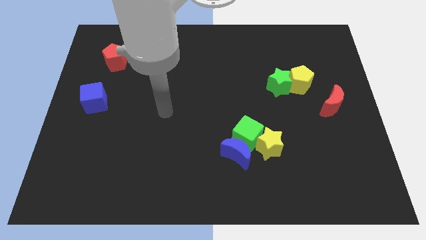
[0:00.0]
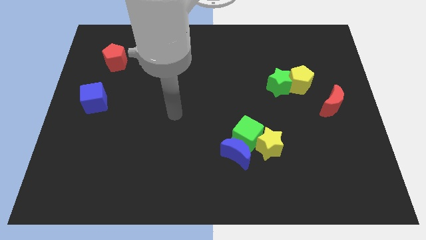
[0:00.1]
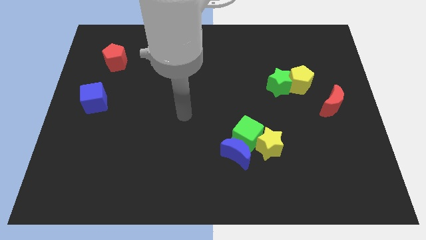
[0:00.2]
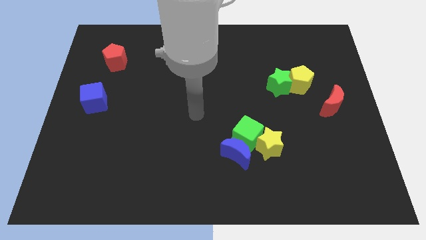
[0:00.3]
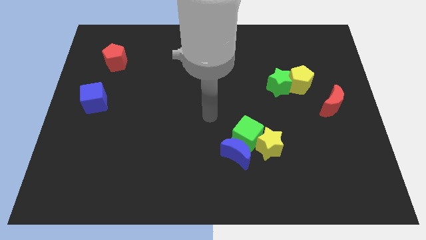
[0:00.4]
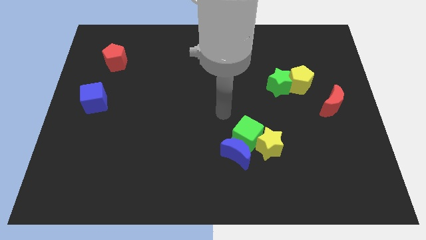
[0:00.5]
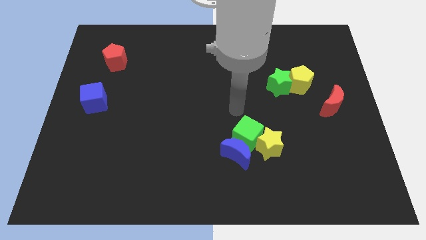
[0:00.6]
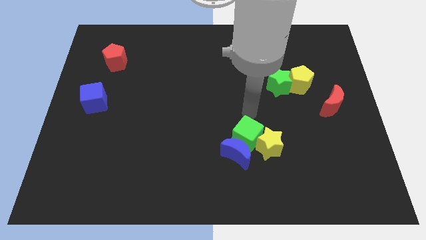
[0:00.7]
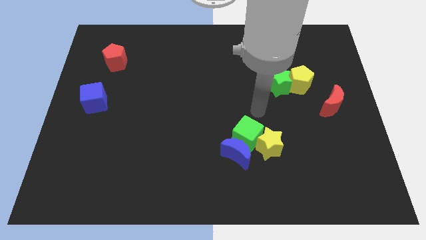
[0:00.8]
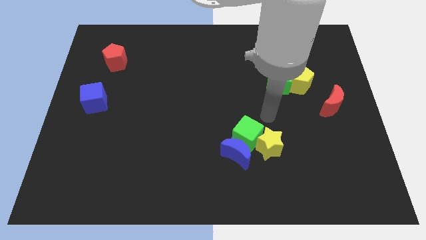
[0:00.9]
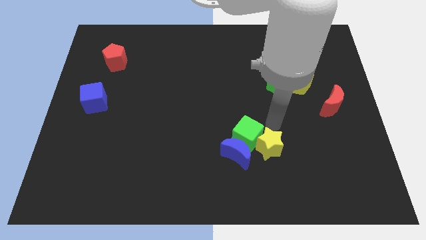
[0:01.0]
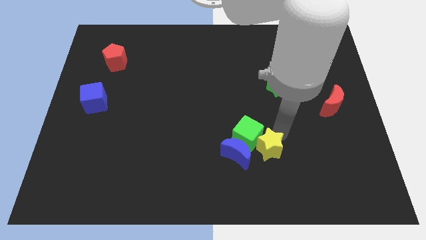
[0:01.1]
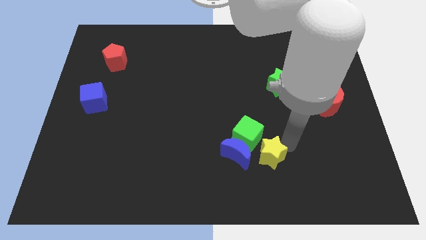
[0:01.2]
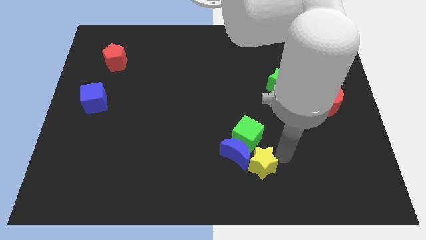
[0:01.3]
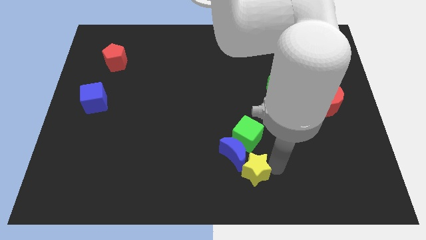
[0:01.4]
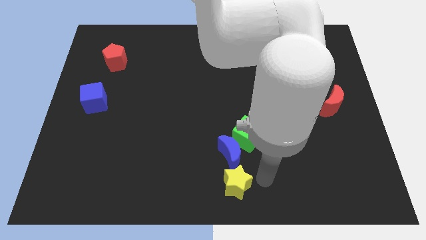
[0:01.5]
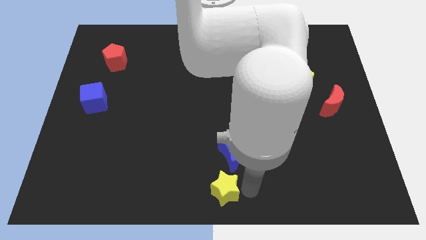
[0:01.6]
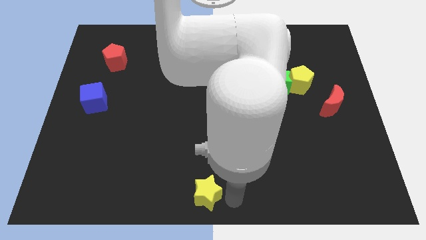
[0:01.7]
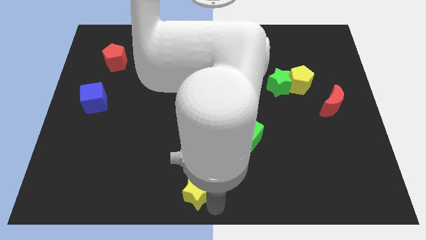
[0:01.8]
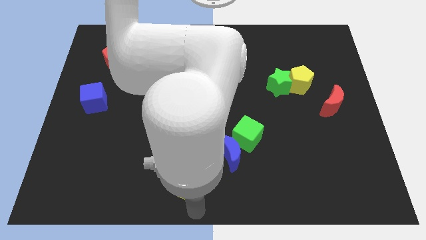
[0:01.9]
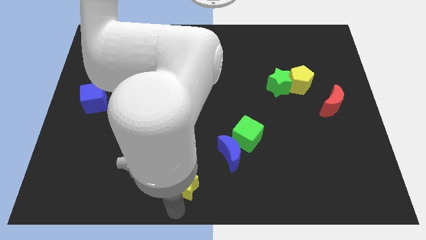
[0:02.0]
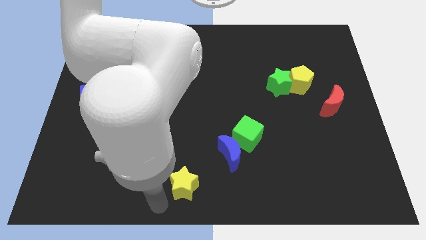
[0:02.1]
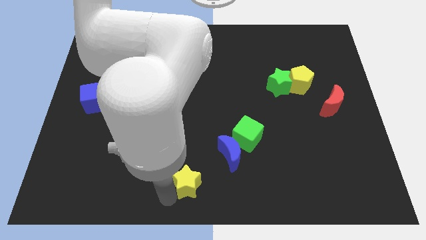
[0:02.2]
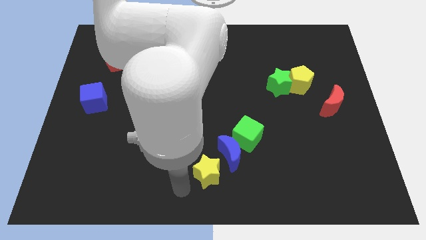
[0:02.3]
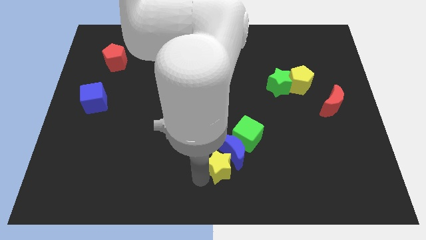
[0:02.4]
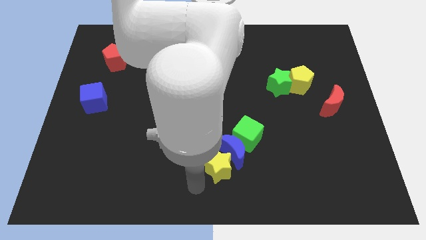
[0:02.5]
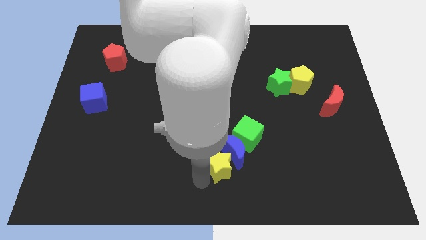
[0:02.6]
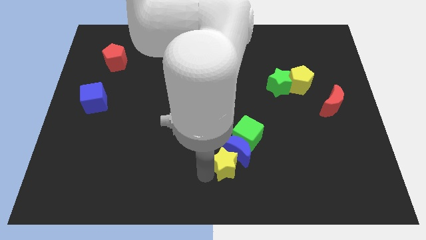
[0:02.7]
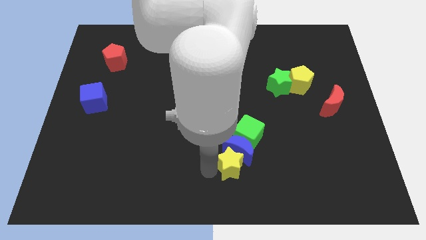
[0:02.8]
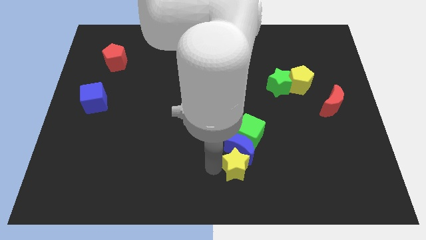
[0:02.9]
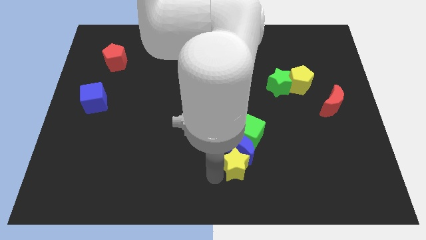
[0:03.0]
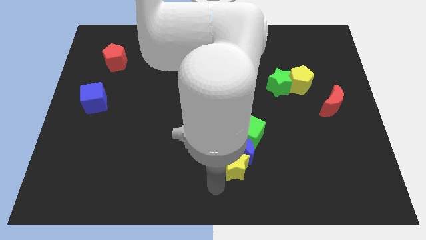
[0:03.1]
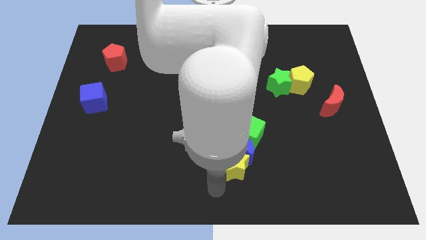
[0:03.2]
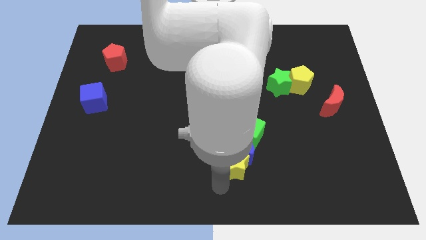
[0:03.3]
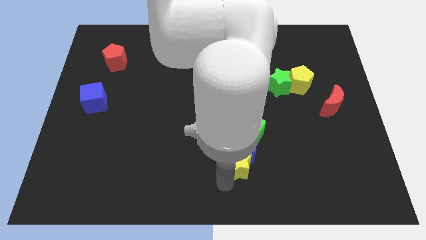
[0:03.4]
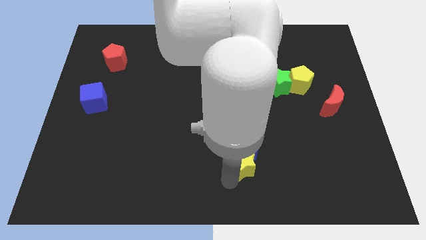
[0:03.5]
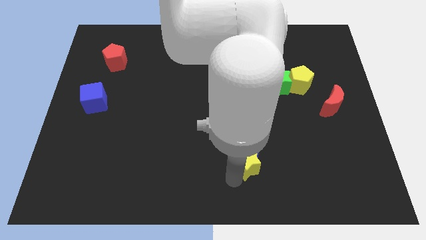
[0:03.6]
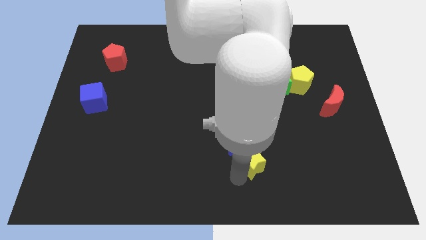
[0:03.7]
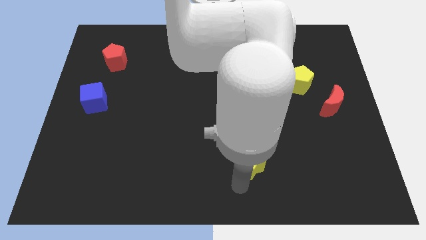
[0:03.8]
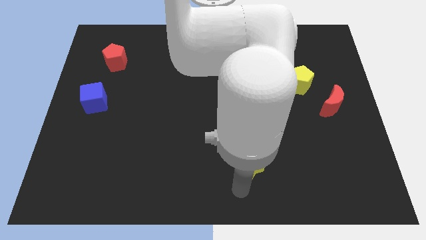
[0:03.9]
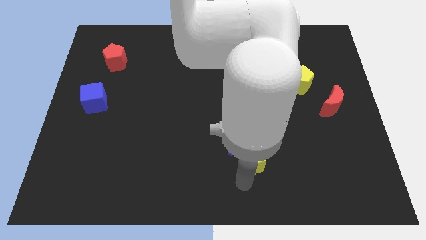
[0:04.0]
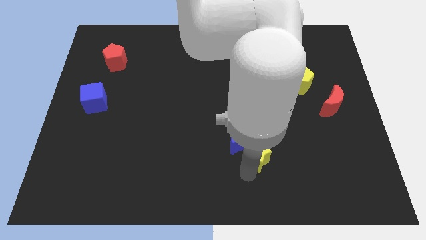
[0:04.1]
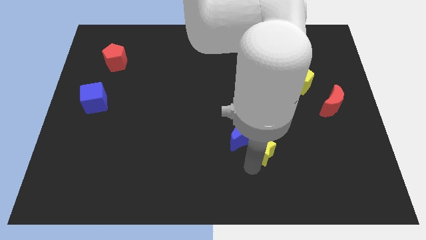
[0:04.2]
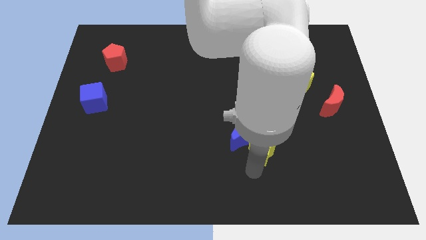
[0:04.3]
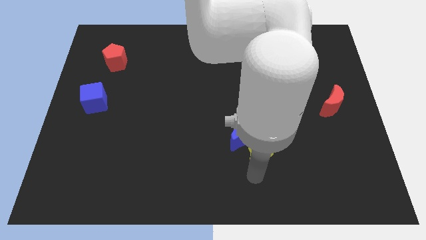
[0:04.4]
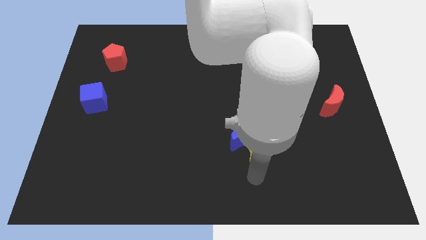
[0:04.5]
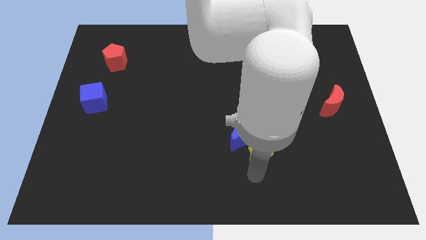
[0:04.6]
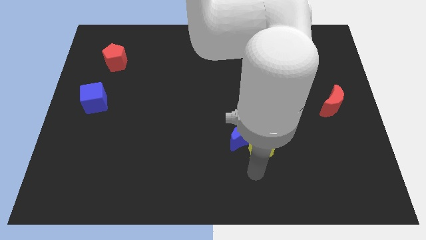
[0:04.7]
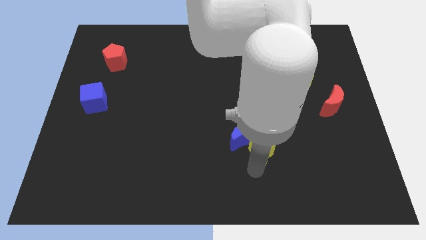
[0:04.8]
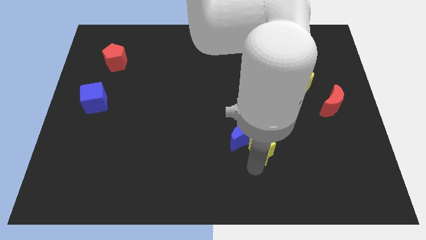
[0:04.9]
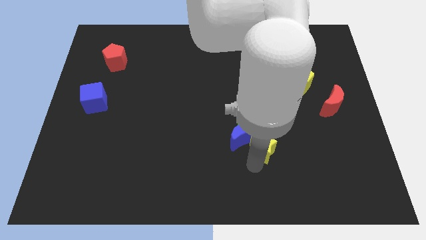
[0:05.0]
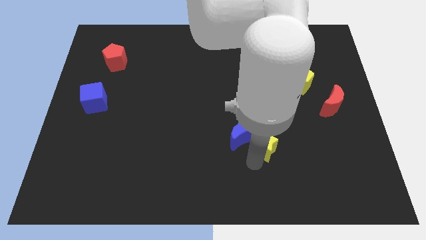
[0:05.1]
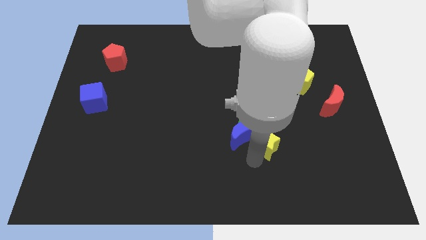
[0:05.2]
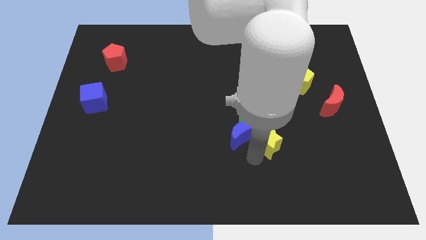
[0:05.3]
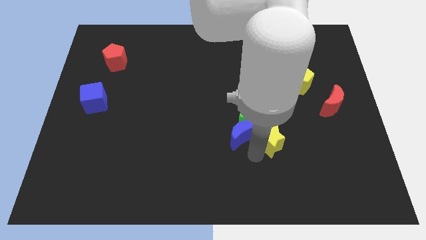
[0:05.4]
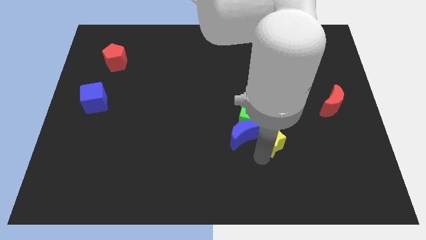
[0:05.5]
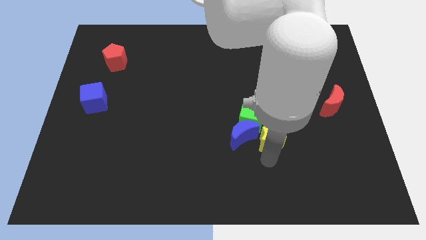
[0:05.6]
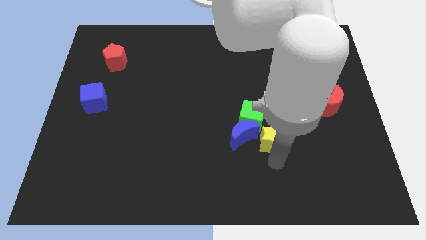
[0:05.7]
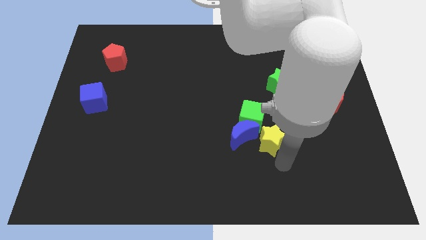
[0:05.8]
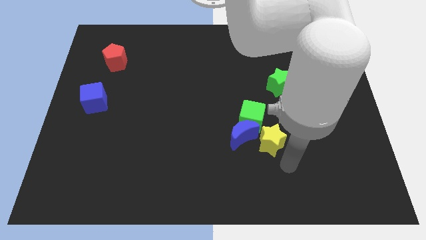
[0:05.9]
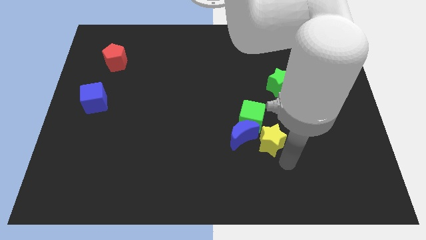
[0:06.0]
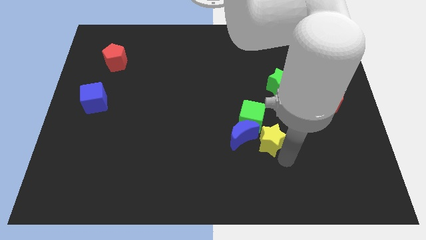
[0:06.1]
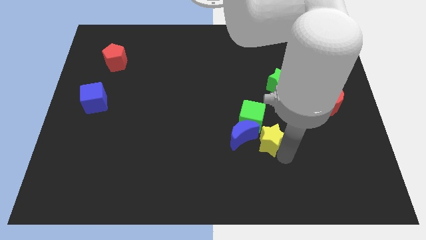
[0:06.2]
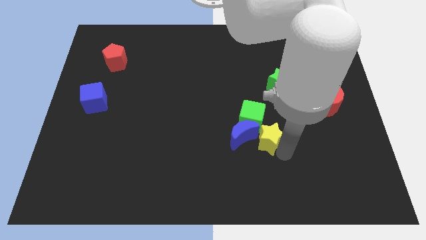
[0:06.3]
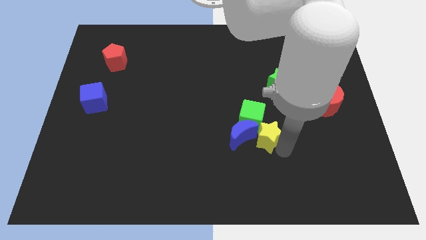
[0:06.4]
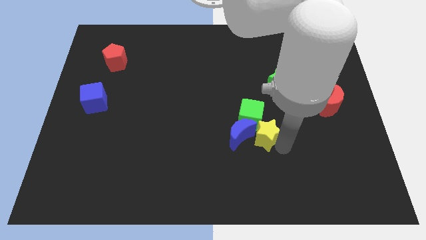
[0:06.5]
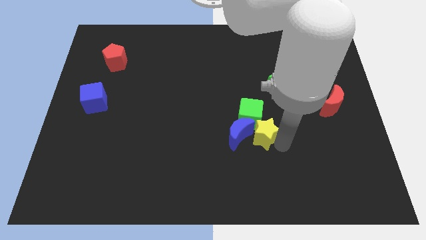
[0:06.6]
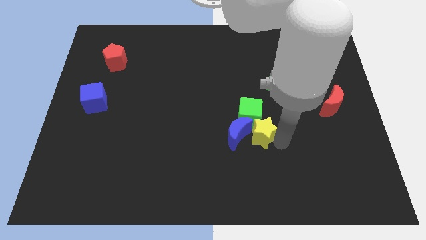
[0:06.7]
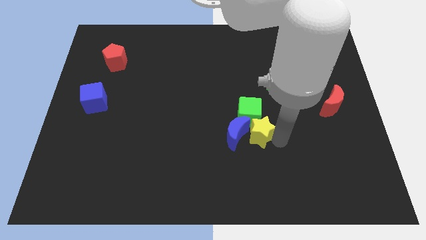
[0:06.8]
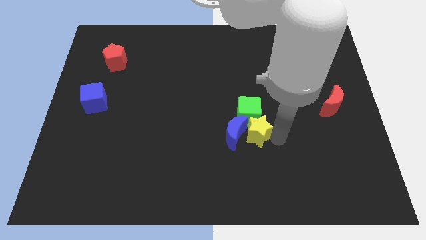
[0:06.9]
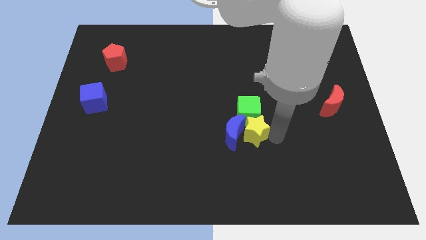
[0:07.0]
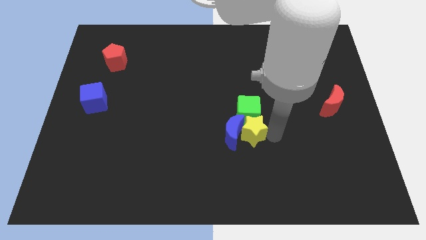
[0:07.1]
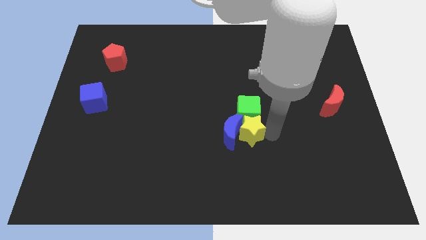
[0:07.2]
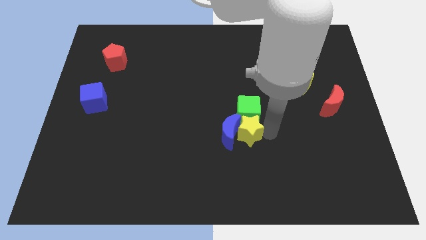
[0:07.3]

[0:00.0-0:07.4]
slide the yellow star to the center of the board
